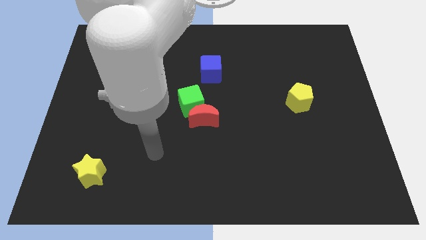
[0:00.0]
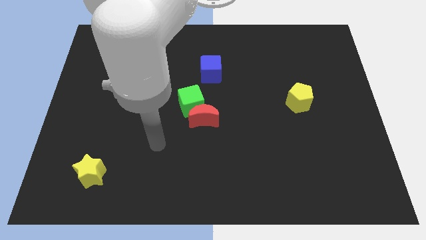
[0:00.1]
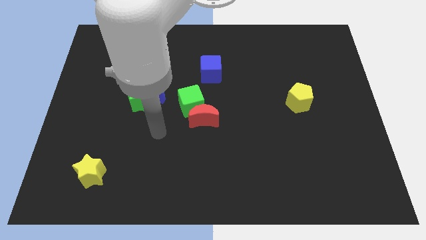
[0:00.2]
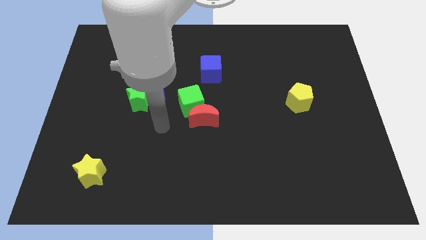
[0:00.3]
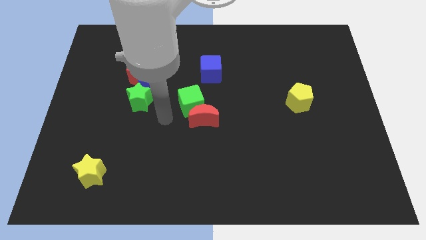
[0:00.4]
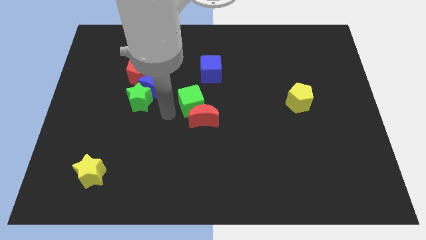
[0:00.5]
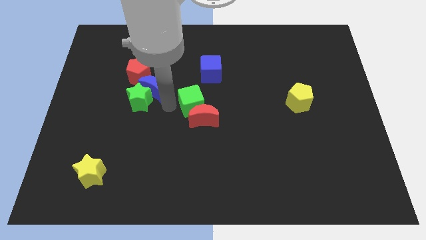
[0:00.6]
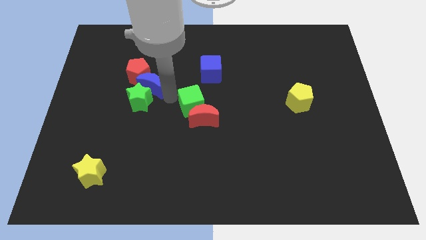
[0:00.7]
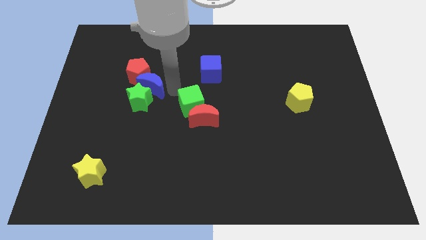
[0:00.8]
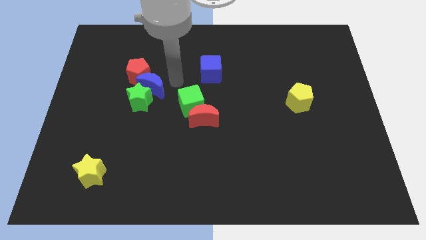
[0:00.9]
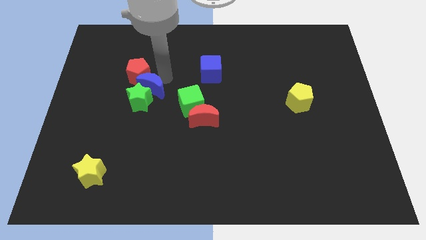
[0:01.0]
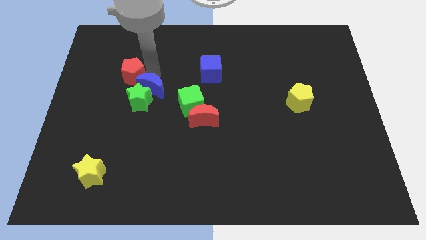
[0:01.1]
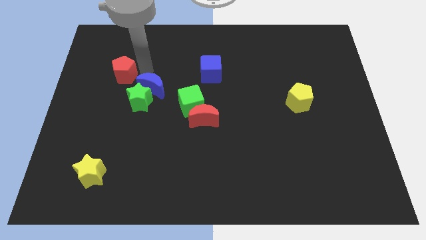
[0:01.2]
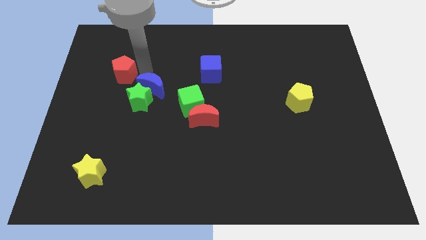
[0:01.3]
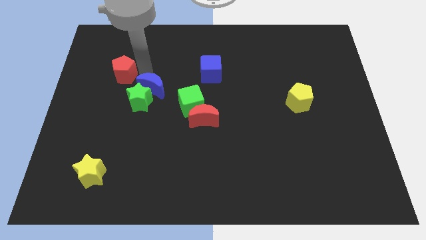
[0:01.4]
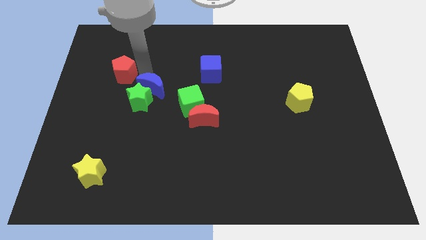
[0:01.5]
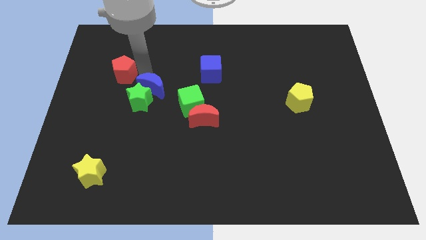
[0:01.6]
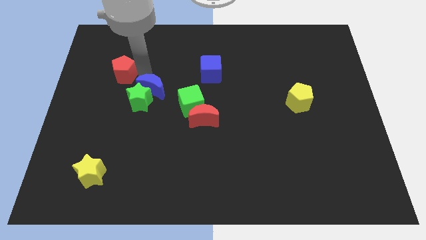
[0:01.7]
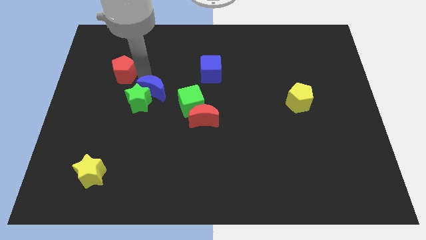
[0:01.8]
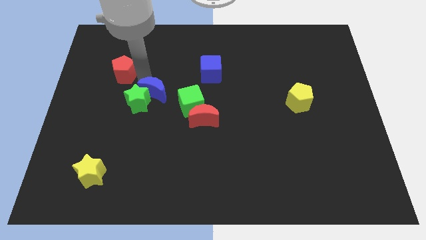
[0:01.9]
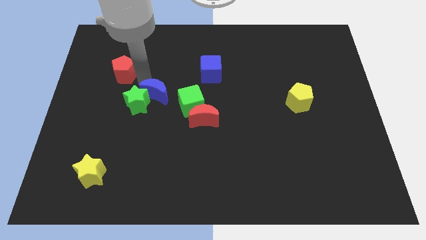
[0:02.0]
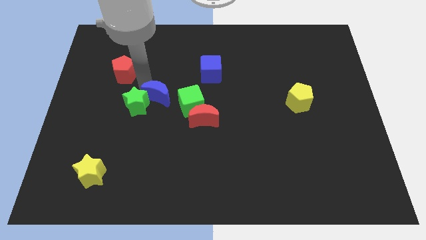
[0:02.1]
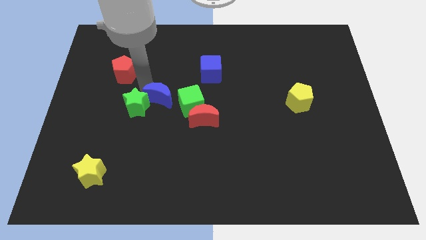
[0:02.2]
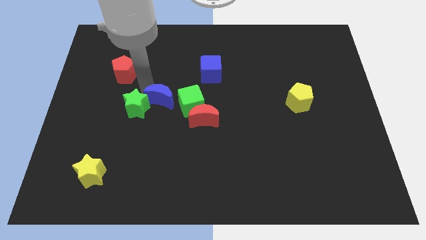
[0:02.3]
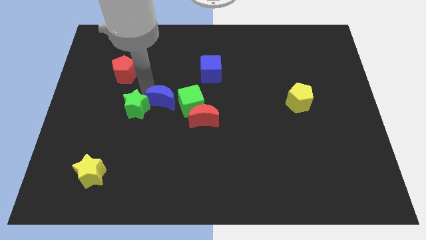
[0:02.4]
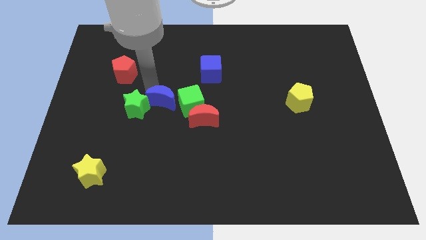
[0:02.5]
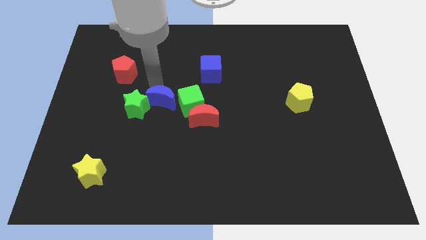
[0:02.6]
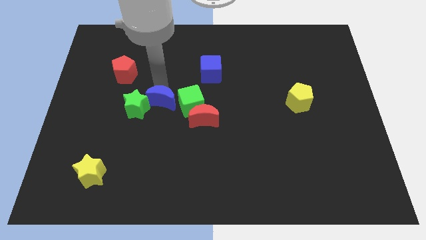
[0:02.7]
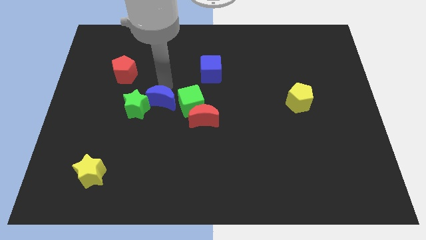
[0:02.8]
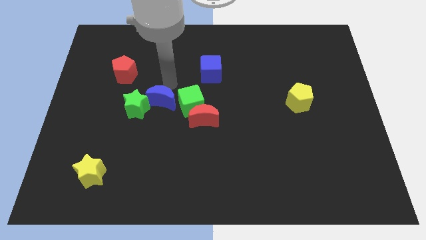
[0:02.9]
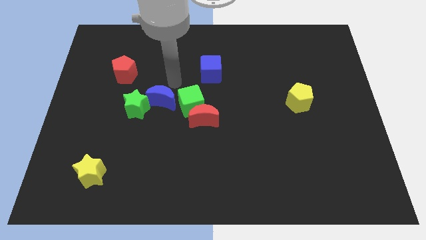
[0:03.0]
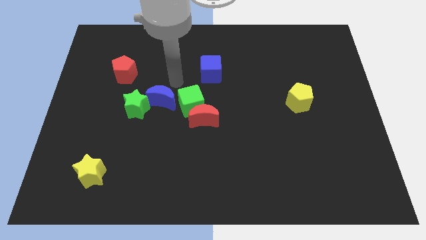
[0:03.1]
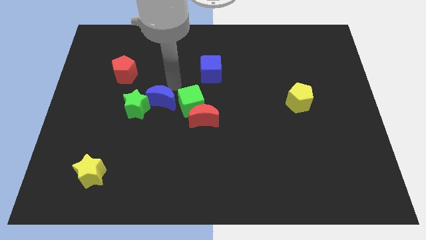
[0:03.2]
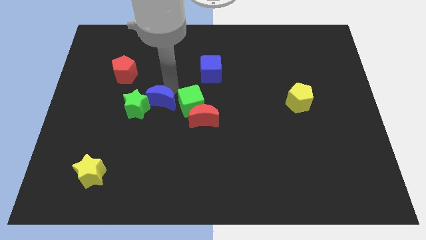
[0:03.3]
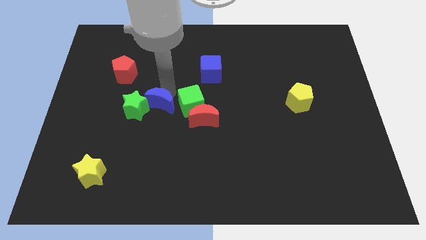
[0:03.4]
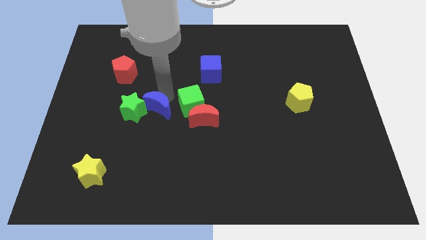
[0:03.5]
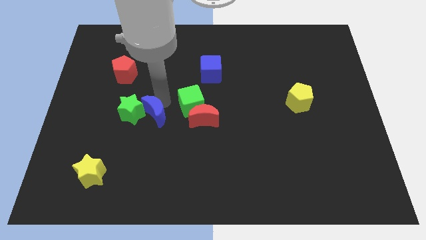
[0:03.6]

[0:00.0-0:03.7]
slightly slide the blue moon down

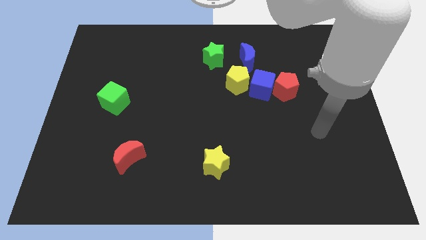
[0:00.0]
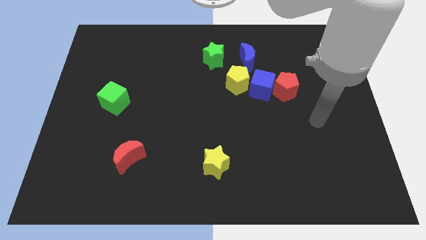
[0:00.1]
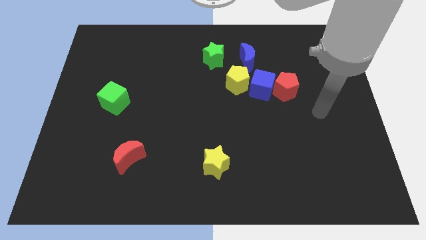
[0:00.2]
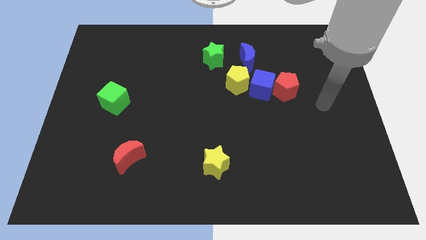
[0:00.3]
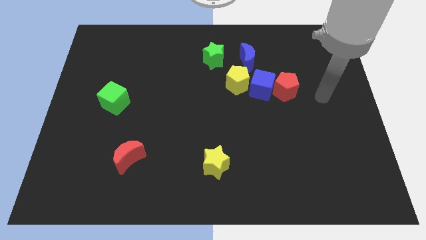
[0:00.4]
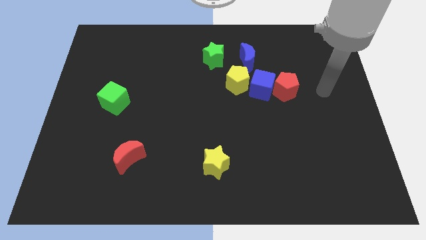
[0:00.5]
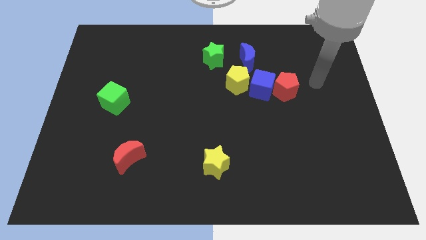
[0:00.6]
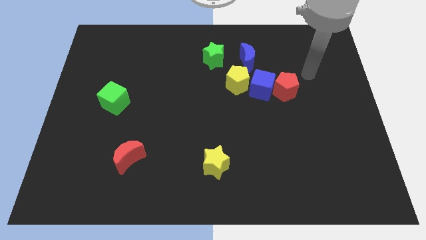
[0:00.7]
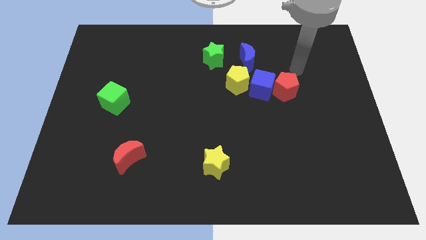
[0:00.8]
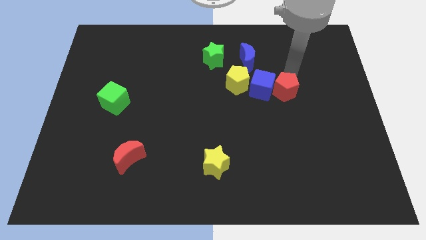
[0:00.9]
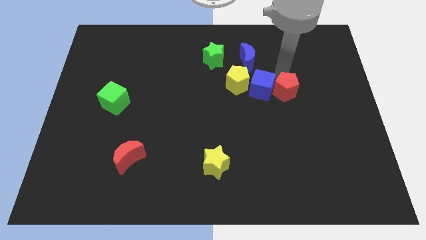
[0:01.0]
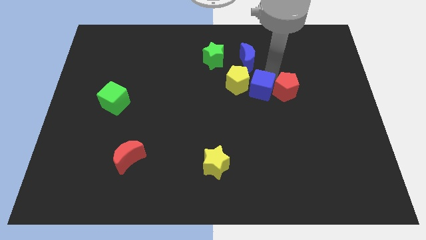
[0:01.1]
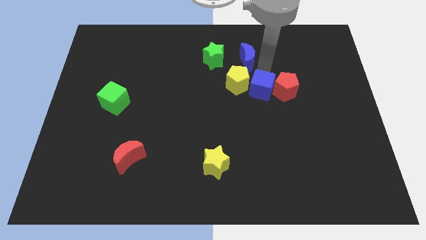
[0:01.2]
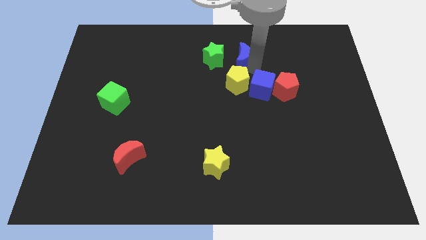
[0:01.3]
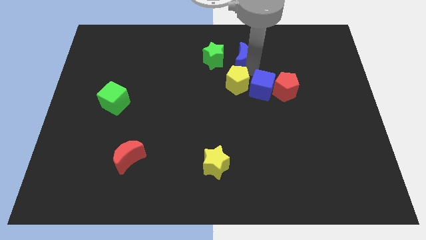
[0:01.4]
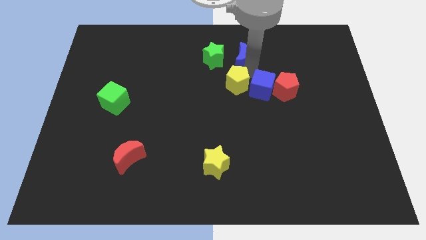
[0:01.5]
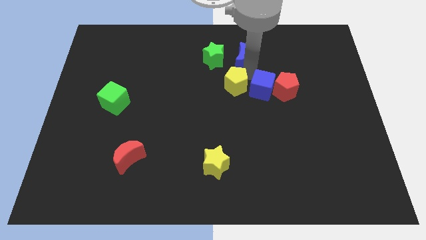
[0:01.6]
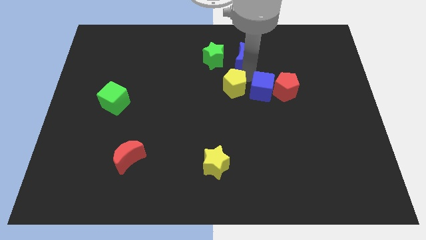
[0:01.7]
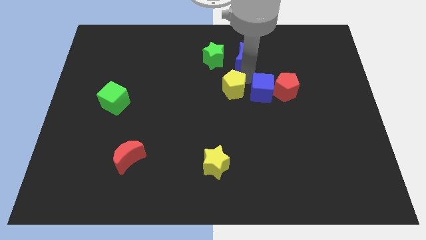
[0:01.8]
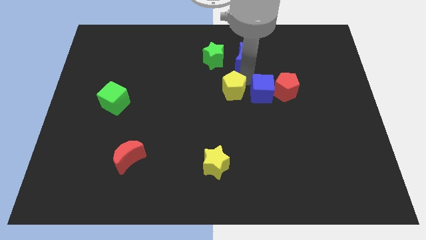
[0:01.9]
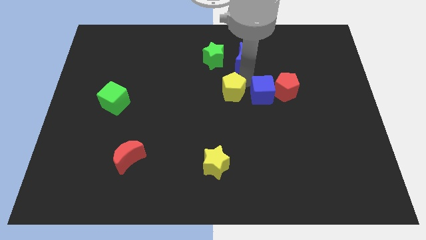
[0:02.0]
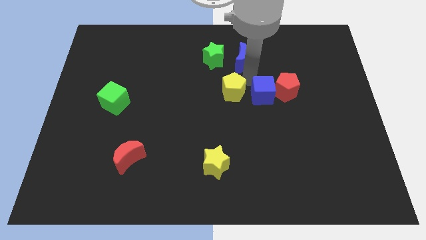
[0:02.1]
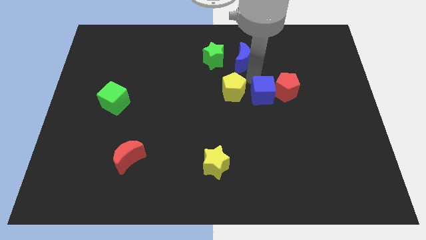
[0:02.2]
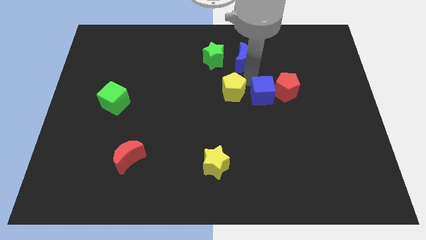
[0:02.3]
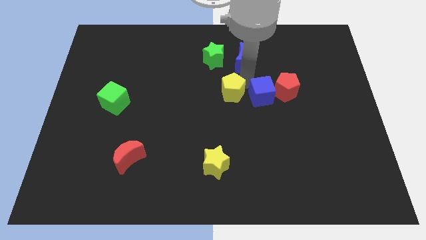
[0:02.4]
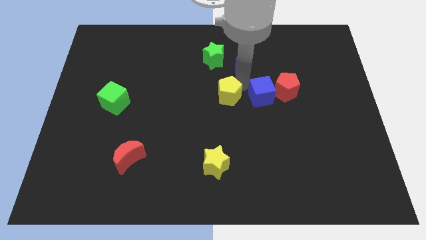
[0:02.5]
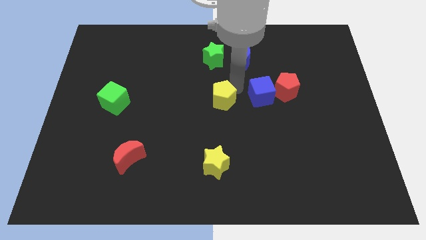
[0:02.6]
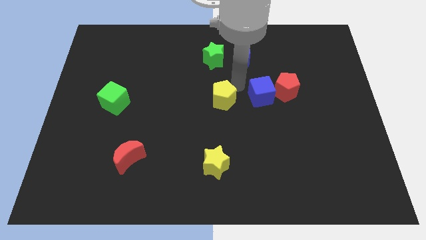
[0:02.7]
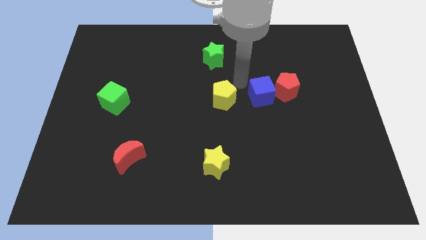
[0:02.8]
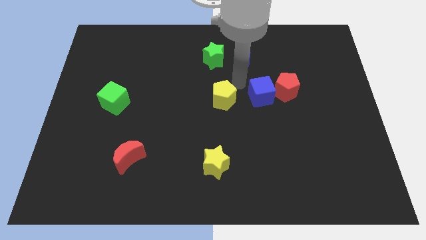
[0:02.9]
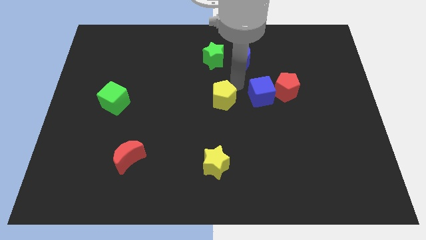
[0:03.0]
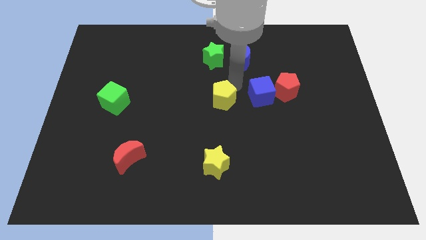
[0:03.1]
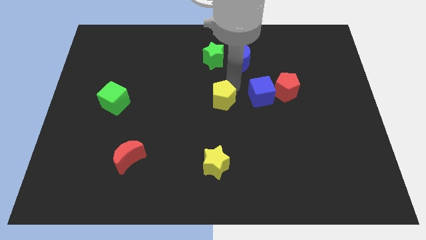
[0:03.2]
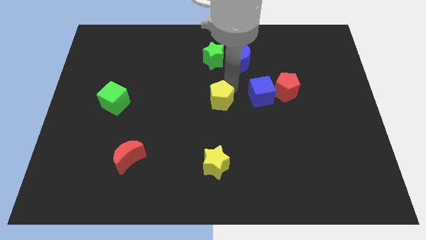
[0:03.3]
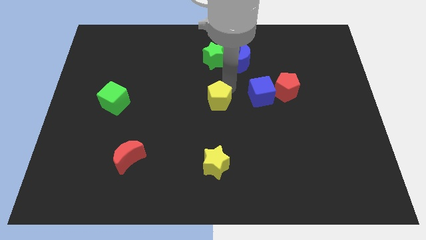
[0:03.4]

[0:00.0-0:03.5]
move the yellow pentagon somewhat down and to the left diagonally

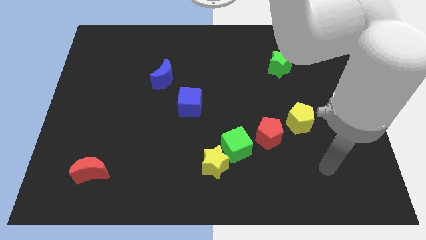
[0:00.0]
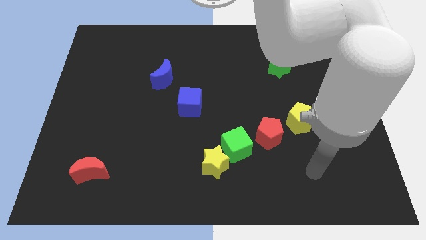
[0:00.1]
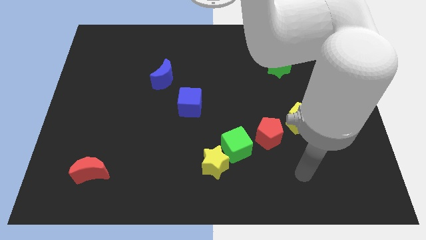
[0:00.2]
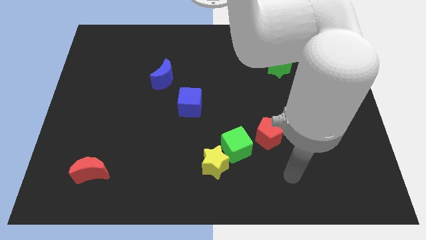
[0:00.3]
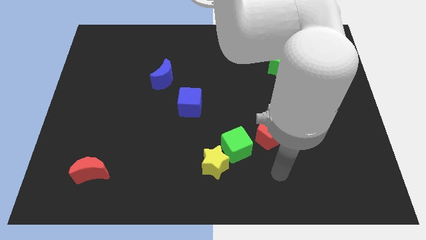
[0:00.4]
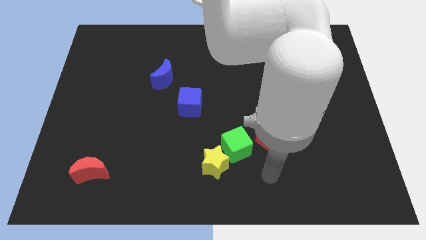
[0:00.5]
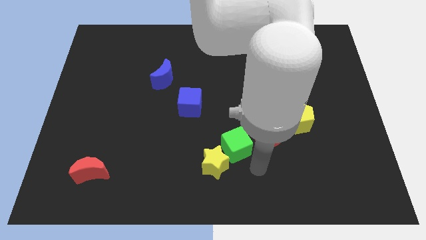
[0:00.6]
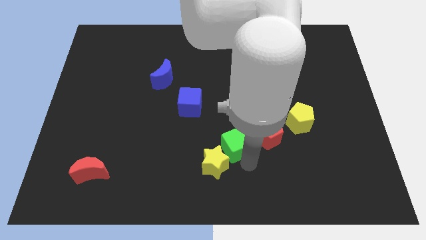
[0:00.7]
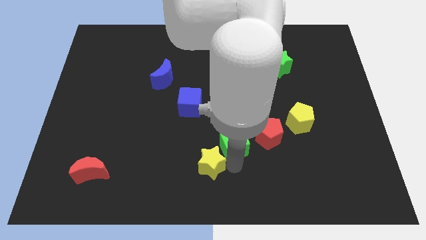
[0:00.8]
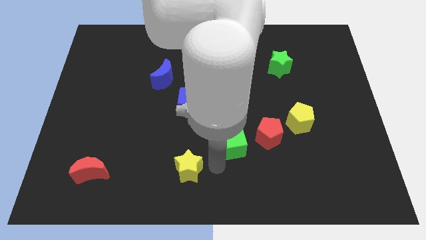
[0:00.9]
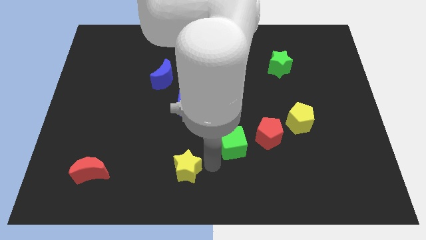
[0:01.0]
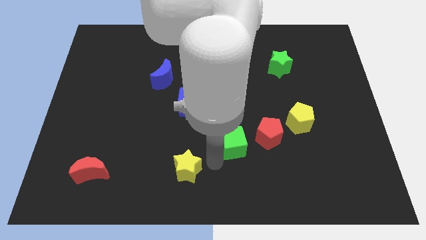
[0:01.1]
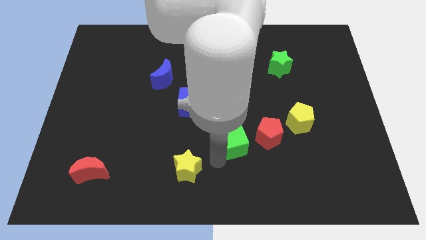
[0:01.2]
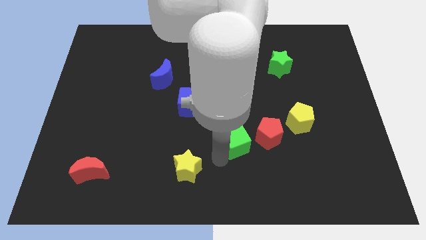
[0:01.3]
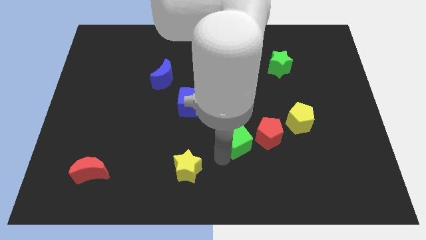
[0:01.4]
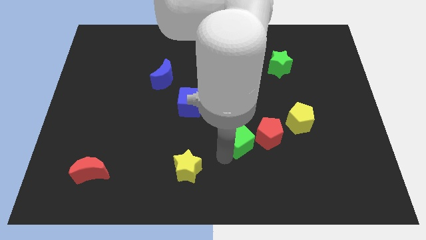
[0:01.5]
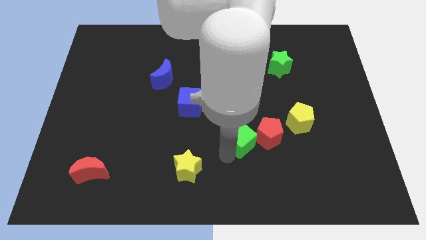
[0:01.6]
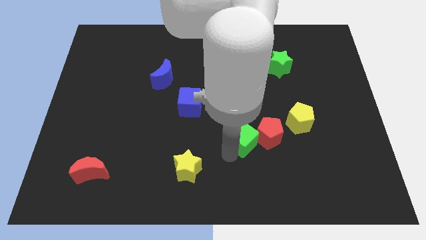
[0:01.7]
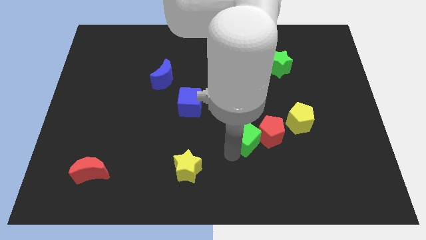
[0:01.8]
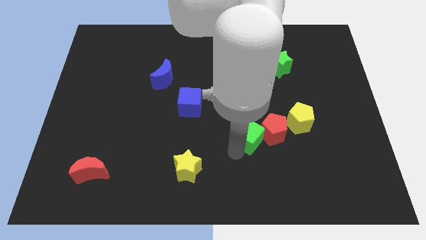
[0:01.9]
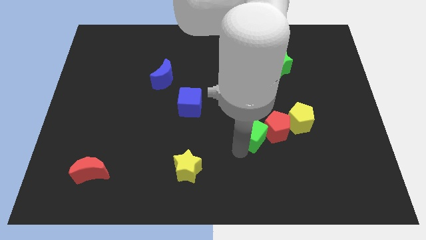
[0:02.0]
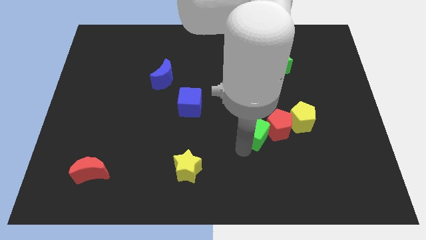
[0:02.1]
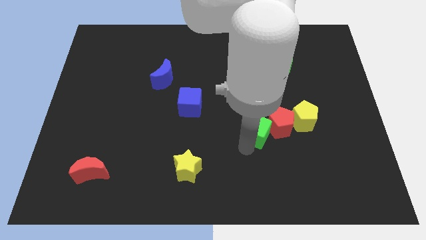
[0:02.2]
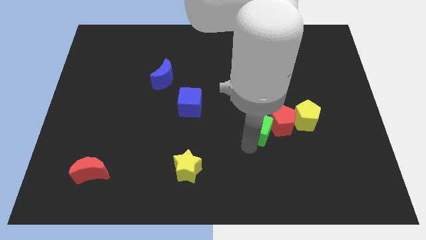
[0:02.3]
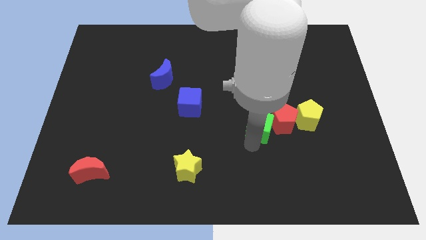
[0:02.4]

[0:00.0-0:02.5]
slightly slide the green cube up and then to the right
